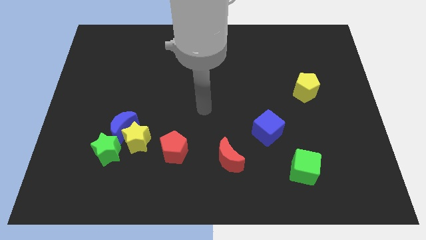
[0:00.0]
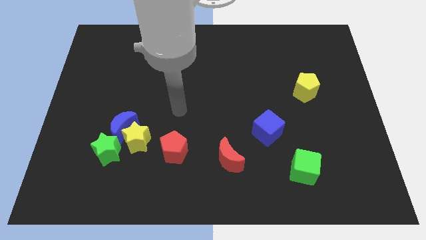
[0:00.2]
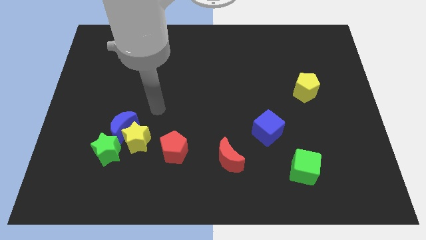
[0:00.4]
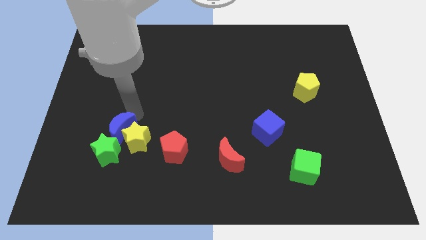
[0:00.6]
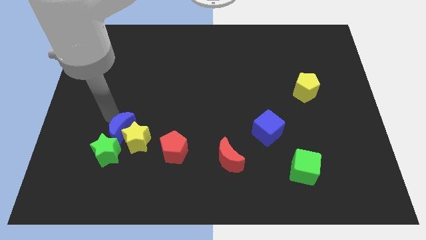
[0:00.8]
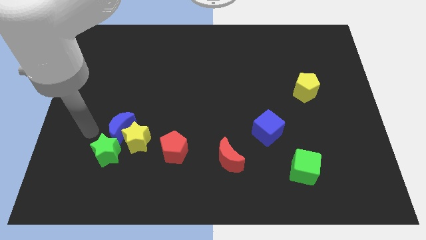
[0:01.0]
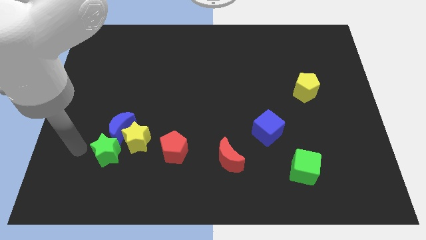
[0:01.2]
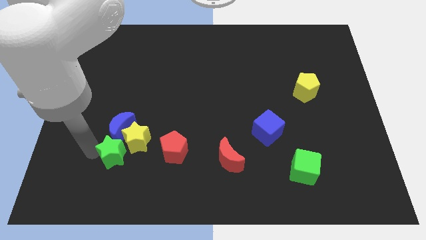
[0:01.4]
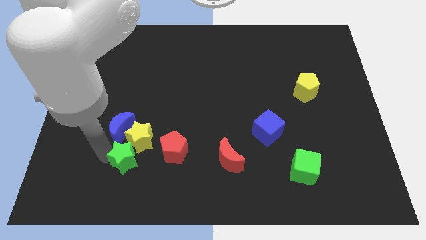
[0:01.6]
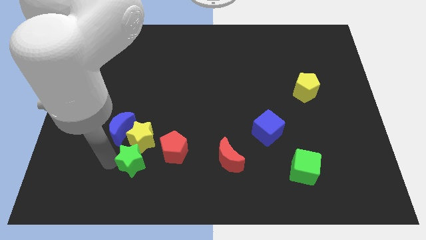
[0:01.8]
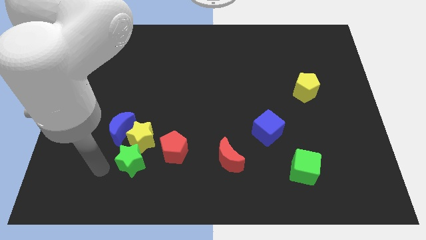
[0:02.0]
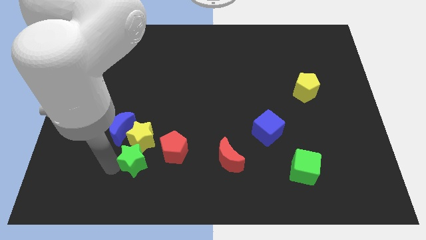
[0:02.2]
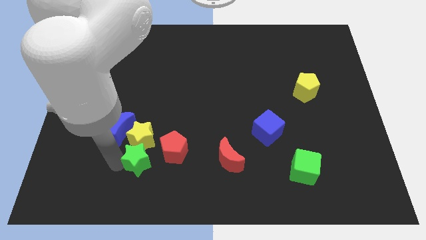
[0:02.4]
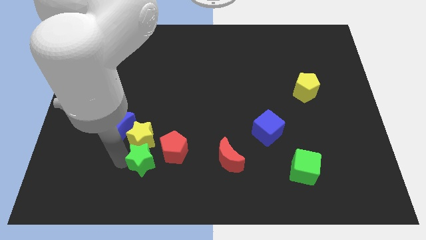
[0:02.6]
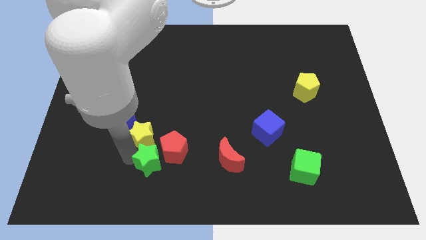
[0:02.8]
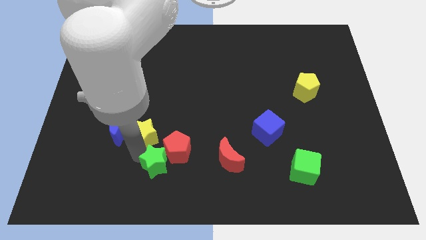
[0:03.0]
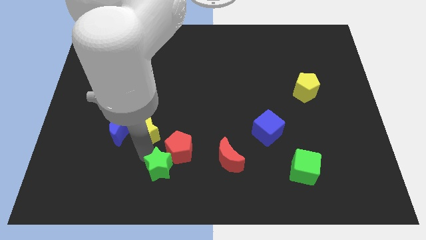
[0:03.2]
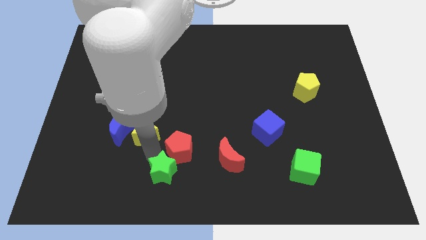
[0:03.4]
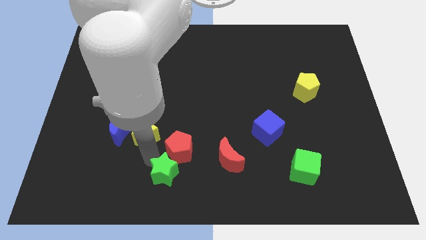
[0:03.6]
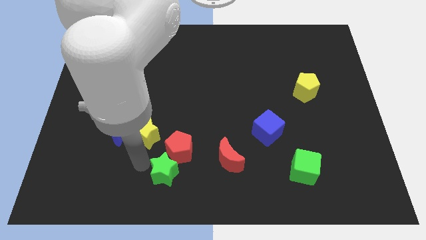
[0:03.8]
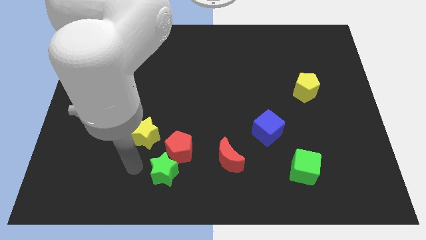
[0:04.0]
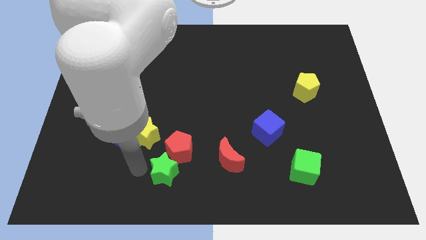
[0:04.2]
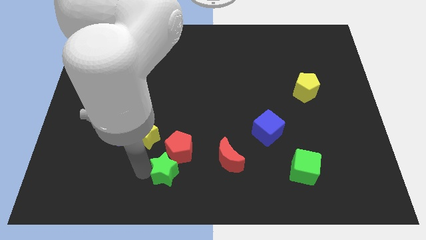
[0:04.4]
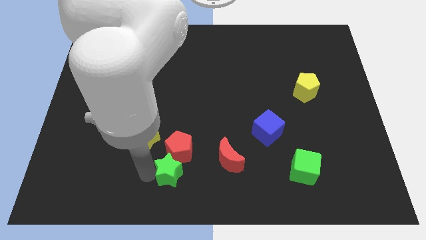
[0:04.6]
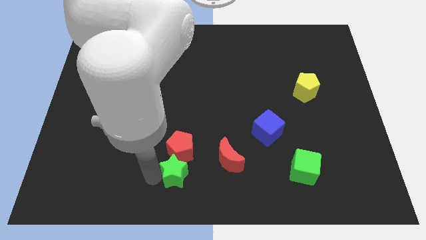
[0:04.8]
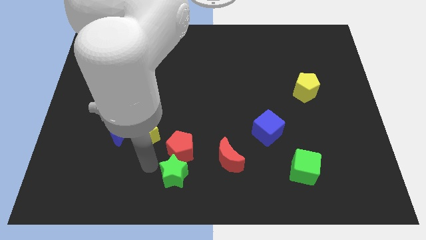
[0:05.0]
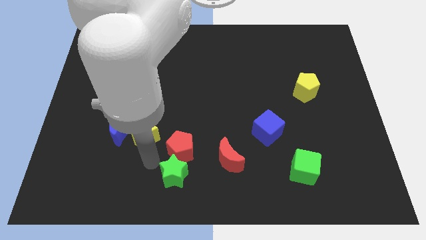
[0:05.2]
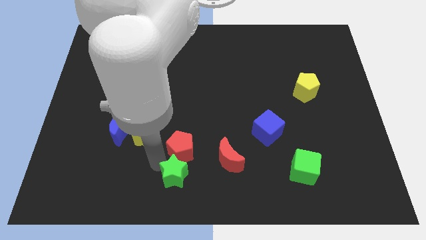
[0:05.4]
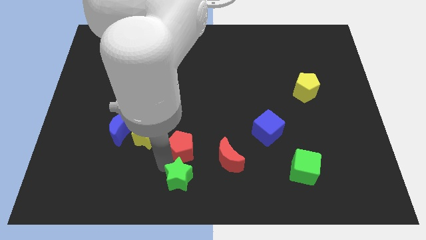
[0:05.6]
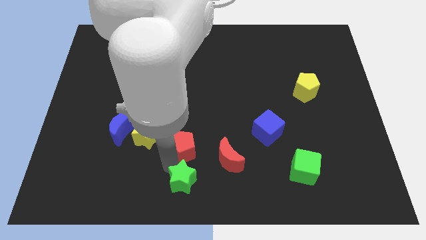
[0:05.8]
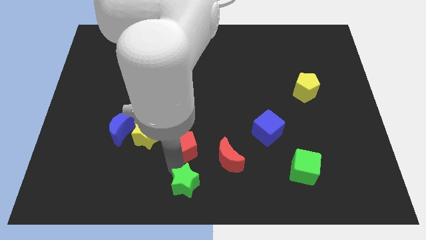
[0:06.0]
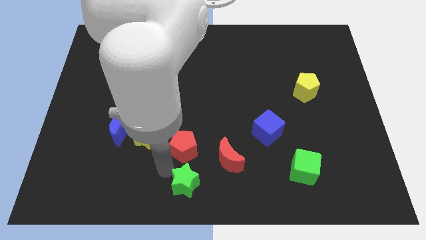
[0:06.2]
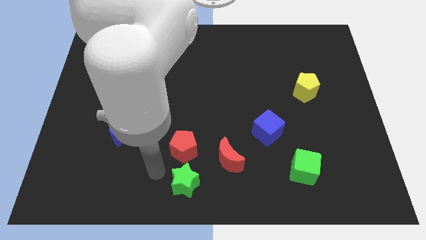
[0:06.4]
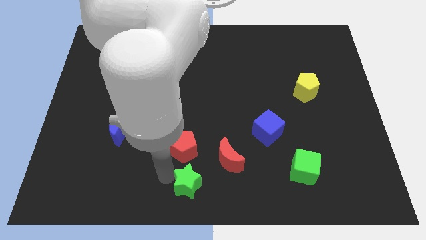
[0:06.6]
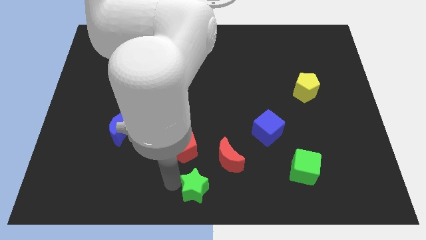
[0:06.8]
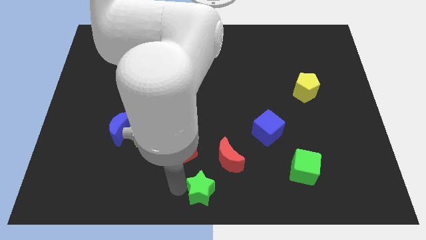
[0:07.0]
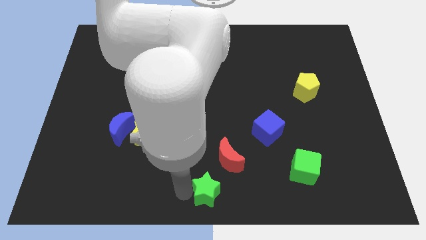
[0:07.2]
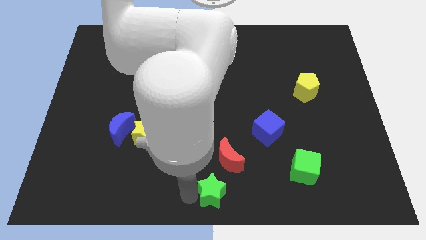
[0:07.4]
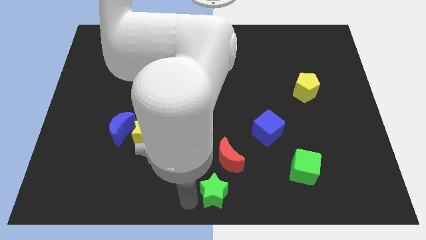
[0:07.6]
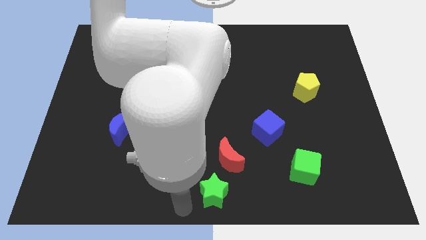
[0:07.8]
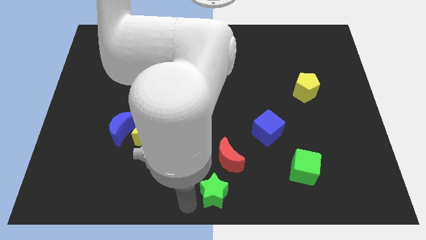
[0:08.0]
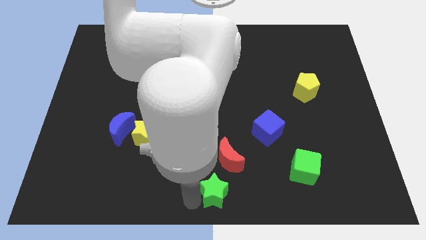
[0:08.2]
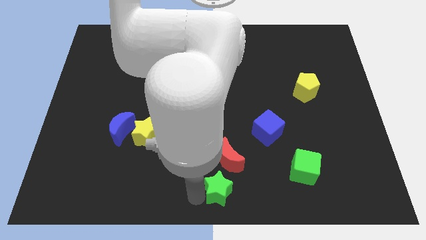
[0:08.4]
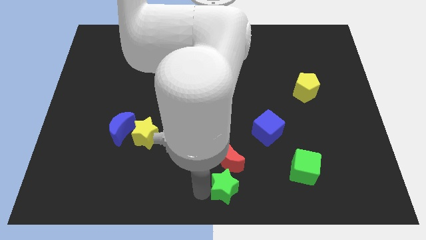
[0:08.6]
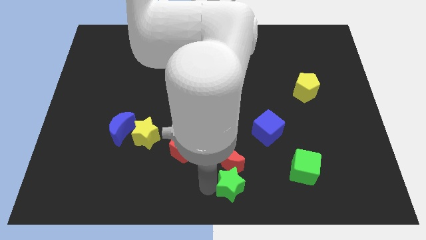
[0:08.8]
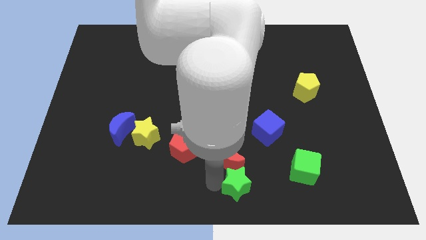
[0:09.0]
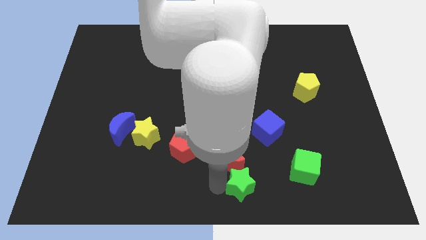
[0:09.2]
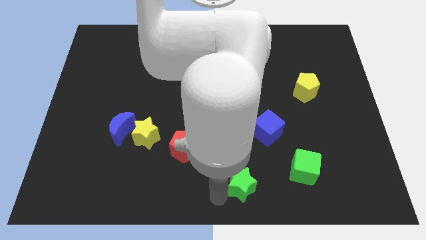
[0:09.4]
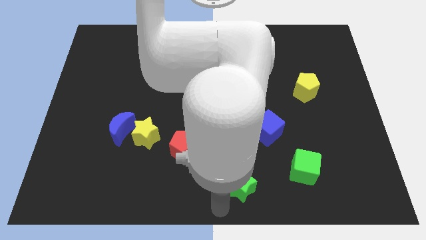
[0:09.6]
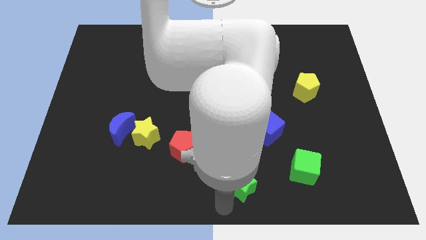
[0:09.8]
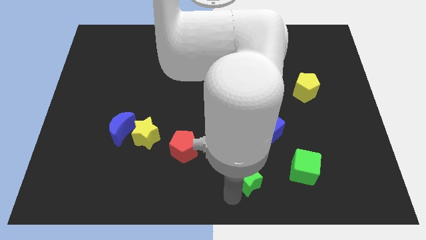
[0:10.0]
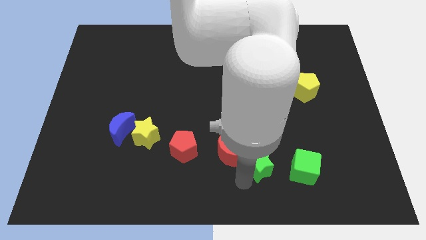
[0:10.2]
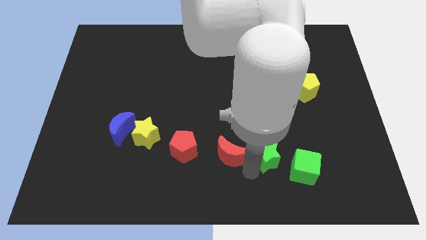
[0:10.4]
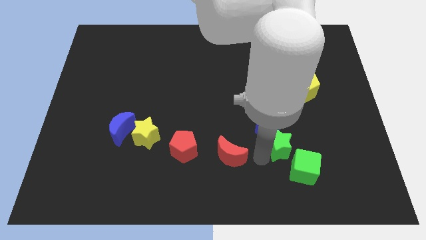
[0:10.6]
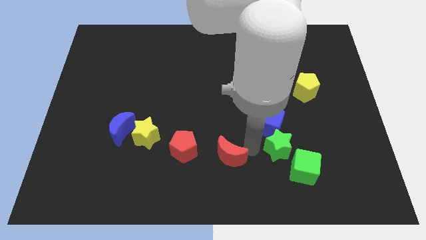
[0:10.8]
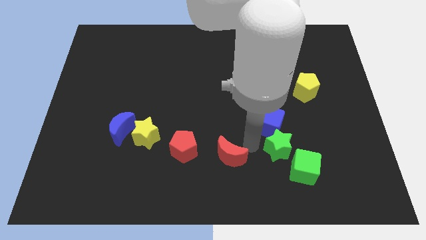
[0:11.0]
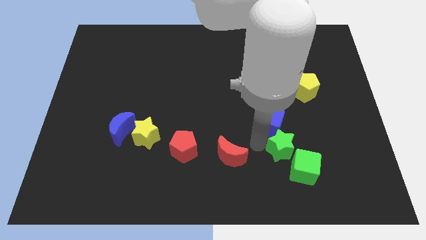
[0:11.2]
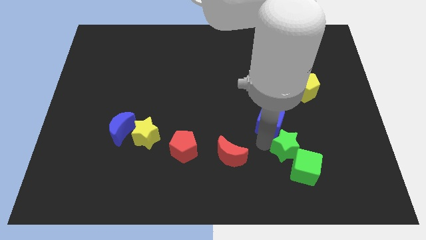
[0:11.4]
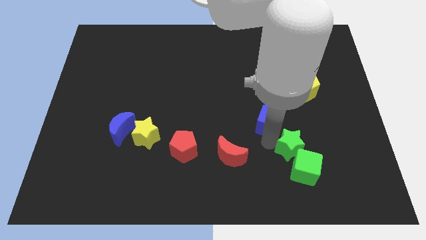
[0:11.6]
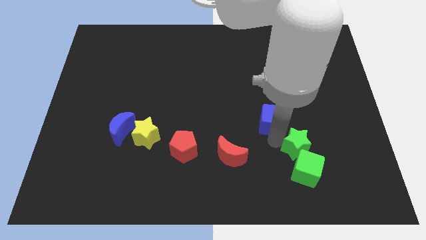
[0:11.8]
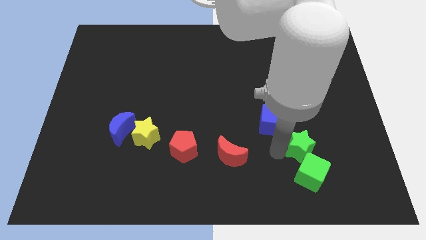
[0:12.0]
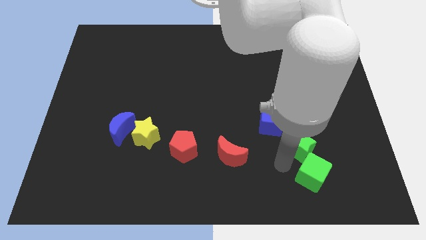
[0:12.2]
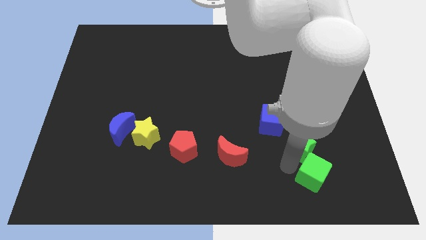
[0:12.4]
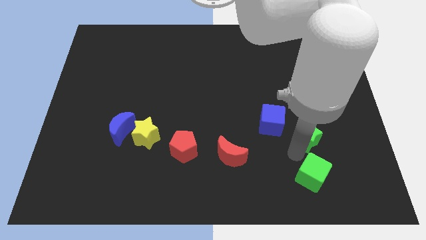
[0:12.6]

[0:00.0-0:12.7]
put the green star below the yellow pentagon

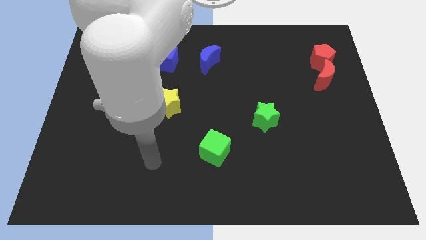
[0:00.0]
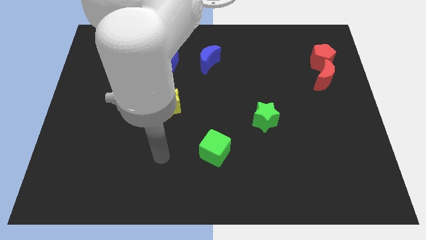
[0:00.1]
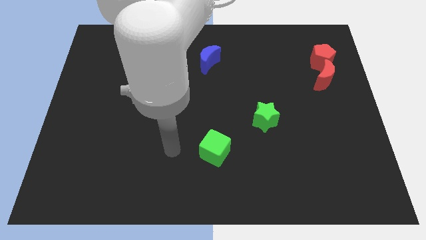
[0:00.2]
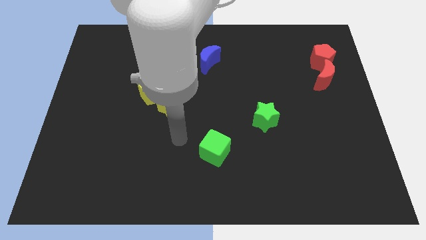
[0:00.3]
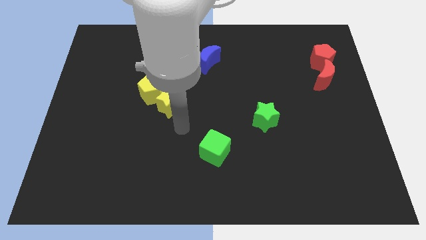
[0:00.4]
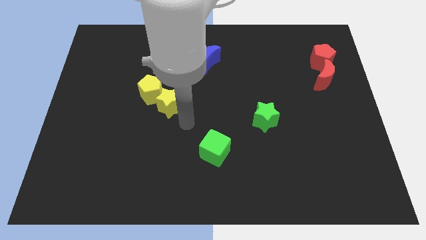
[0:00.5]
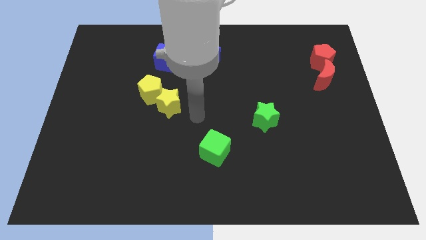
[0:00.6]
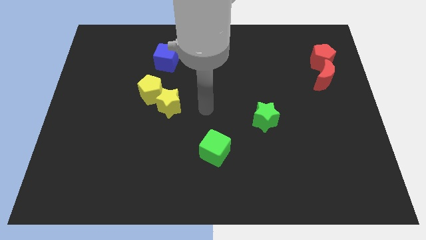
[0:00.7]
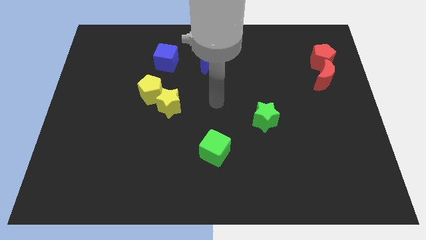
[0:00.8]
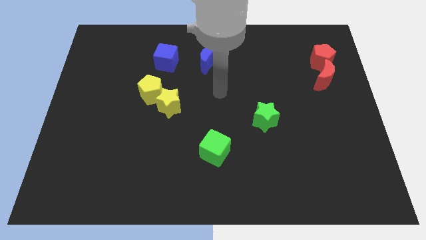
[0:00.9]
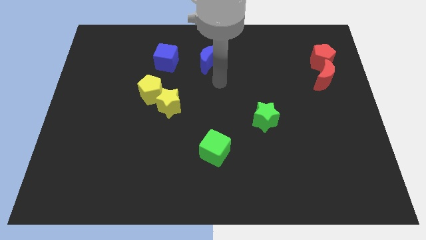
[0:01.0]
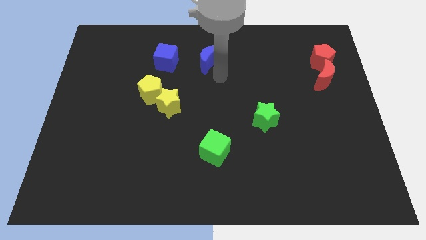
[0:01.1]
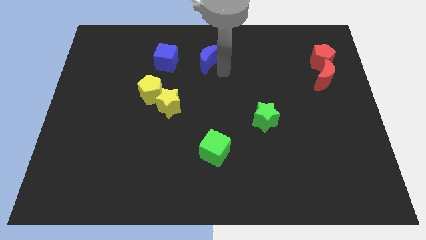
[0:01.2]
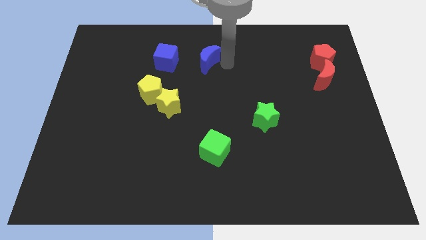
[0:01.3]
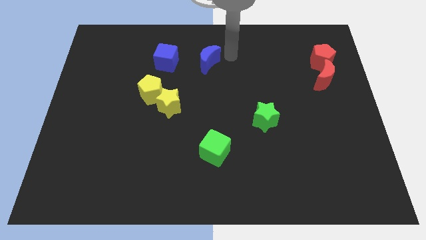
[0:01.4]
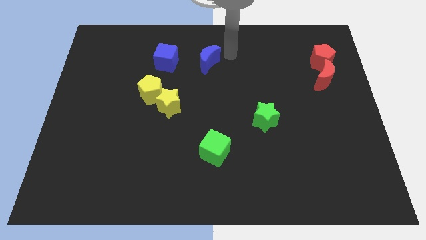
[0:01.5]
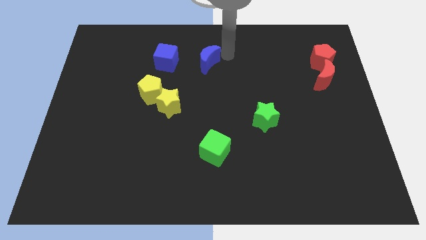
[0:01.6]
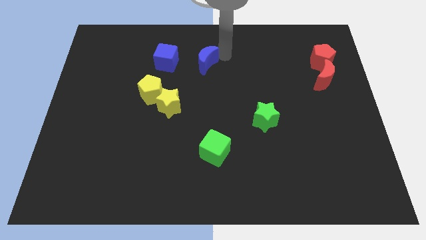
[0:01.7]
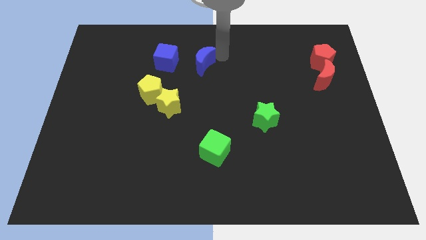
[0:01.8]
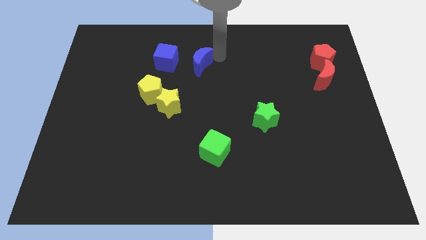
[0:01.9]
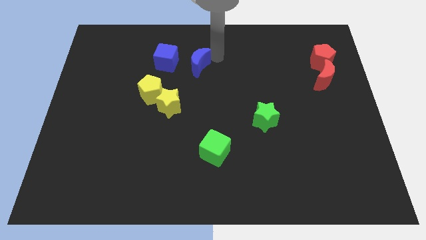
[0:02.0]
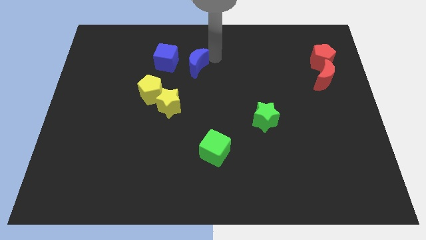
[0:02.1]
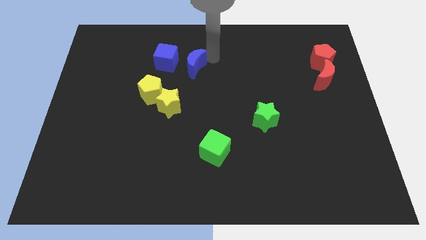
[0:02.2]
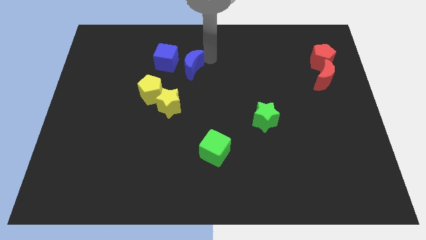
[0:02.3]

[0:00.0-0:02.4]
move the blue moon above the yellow star
